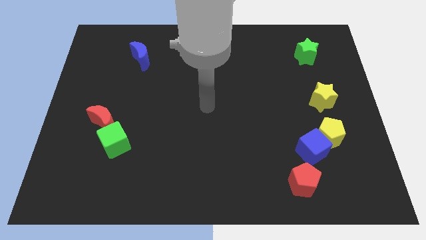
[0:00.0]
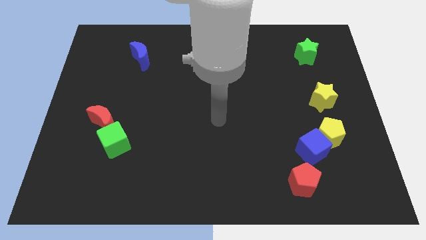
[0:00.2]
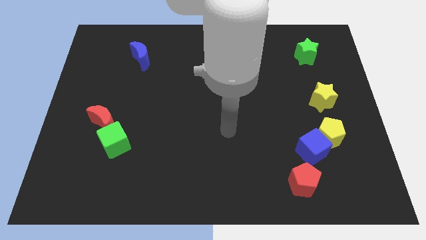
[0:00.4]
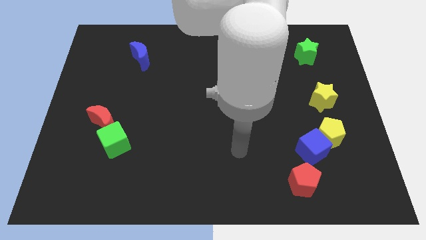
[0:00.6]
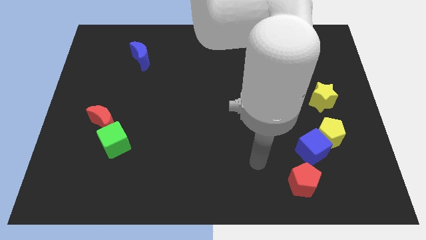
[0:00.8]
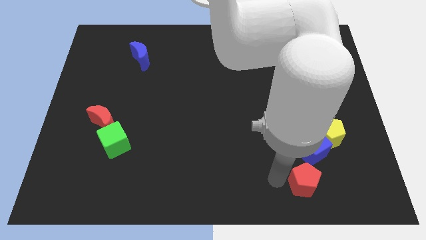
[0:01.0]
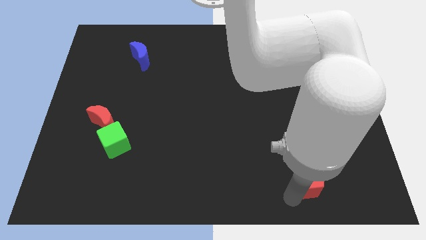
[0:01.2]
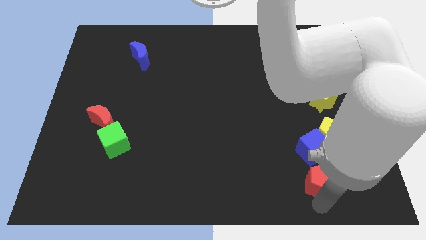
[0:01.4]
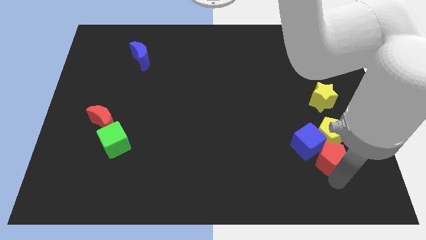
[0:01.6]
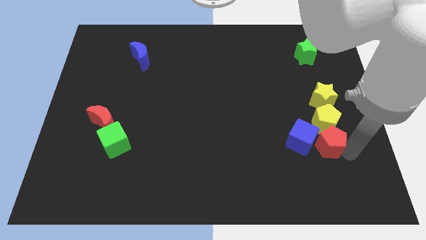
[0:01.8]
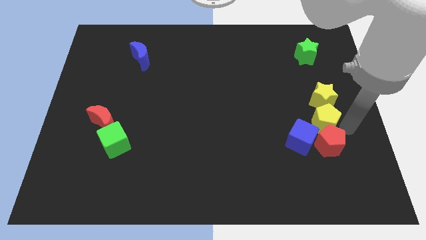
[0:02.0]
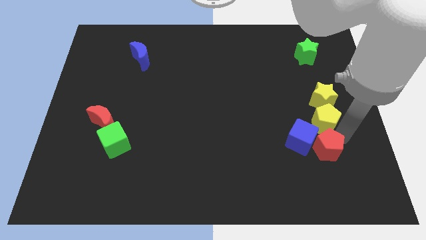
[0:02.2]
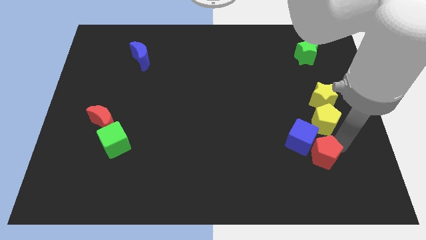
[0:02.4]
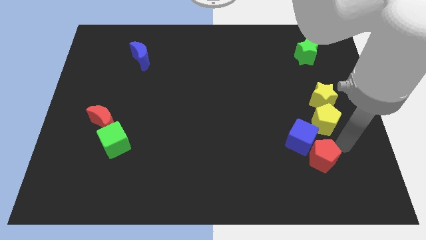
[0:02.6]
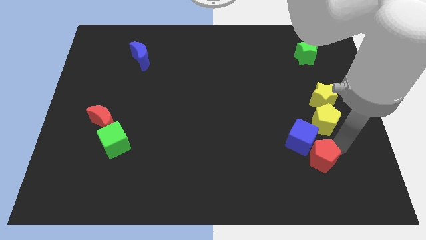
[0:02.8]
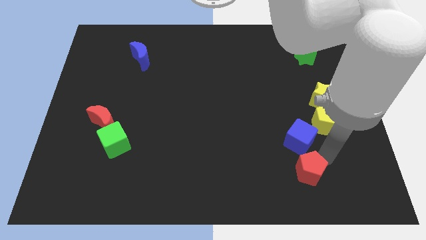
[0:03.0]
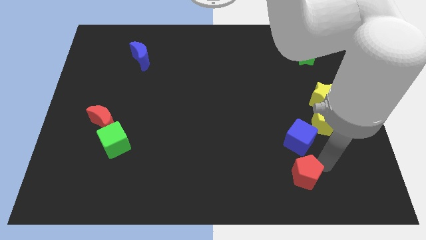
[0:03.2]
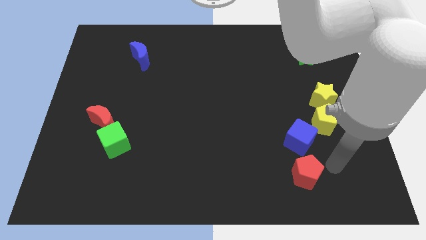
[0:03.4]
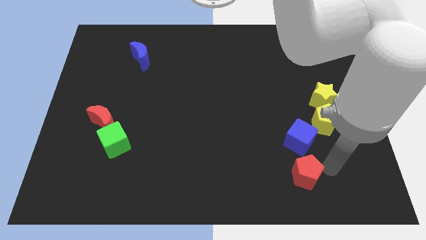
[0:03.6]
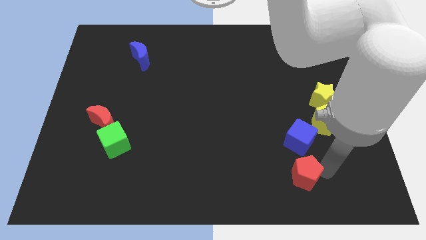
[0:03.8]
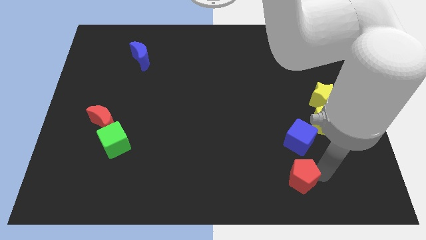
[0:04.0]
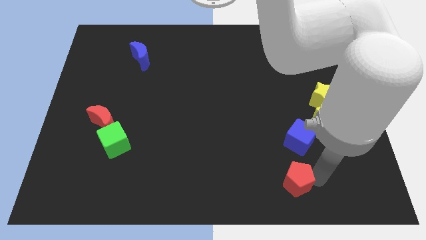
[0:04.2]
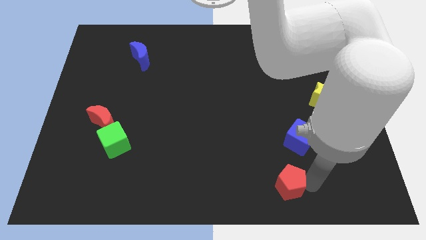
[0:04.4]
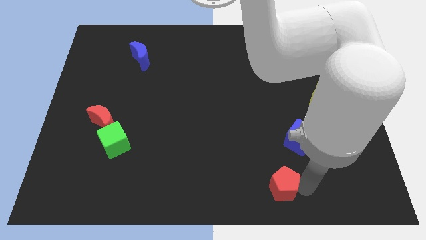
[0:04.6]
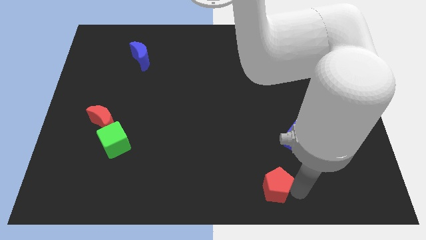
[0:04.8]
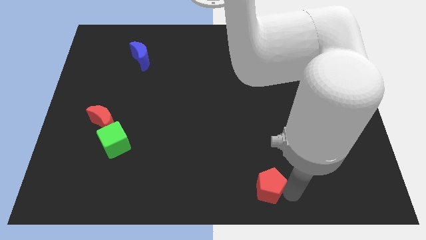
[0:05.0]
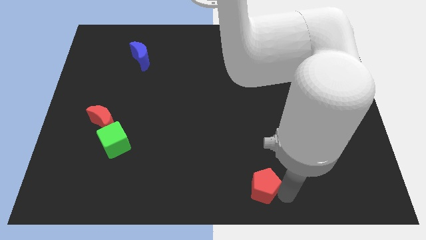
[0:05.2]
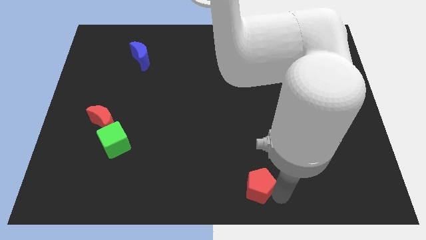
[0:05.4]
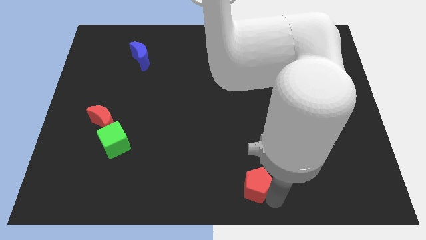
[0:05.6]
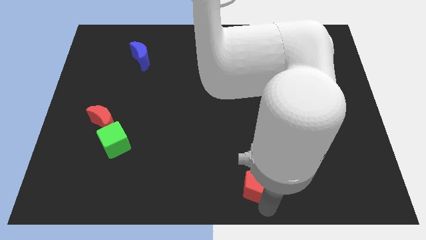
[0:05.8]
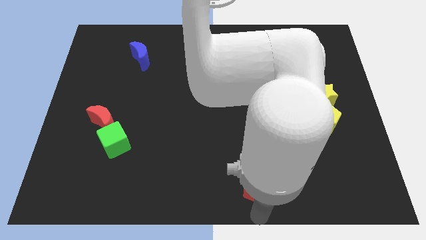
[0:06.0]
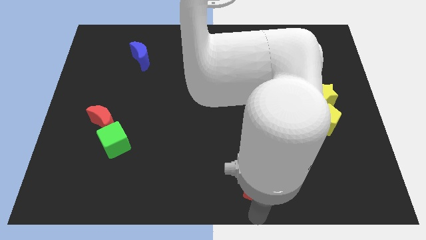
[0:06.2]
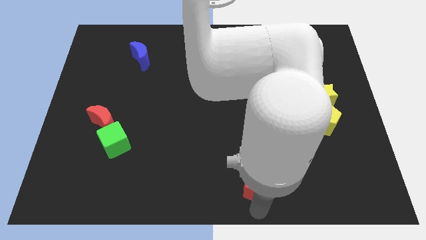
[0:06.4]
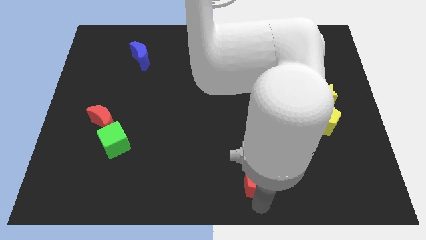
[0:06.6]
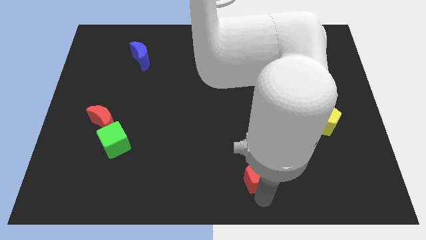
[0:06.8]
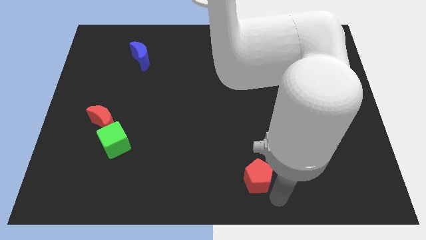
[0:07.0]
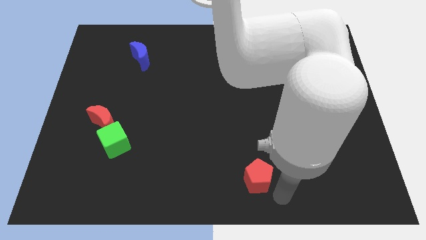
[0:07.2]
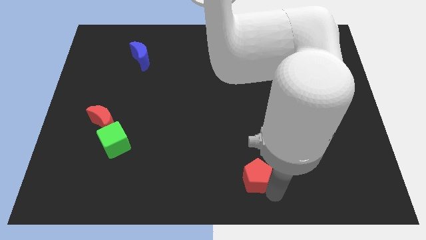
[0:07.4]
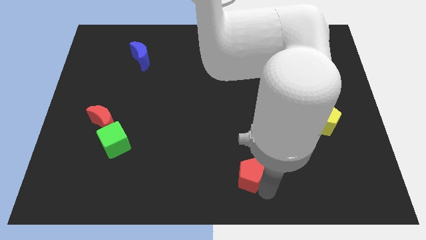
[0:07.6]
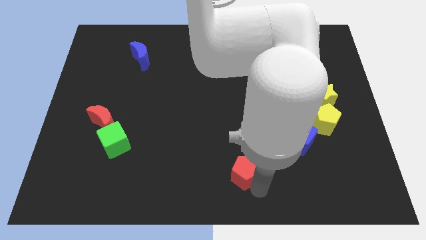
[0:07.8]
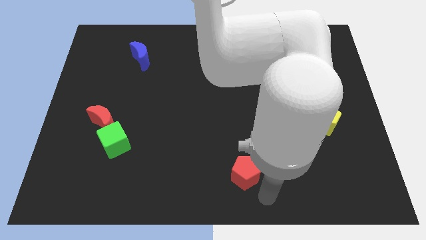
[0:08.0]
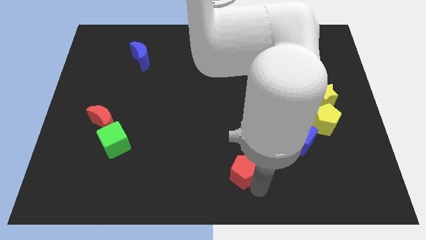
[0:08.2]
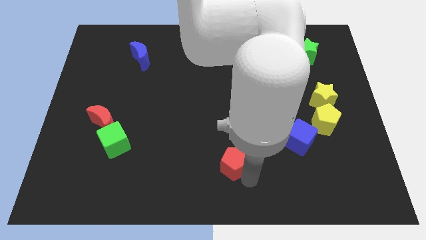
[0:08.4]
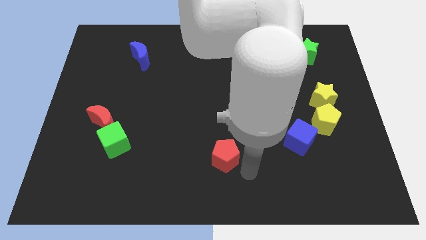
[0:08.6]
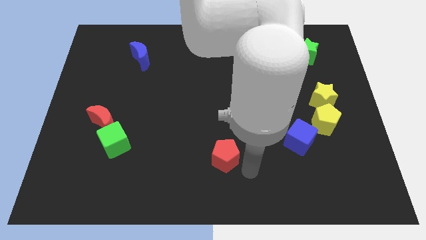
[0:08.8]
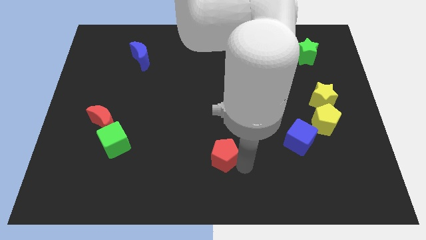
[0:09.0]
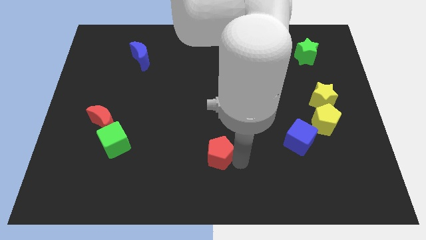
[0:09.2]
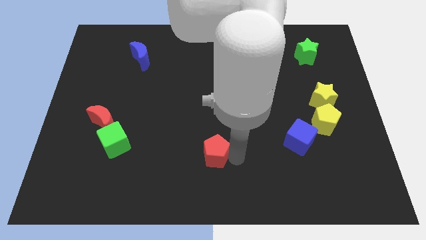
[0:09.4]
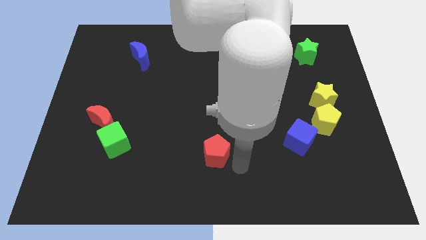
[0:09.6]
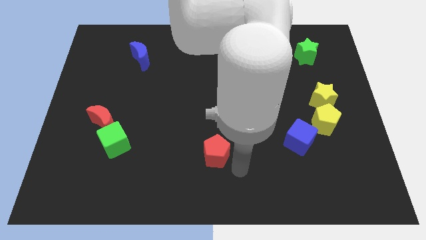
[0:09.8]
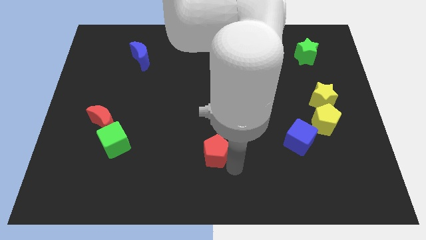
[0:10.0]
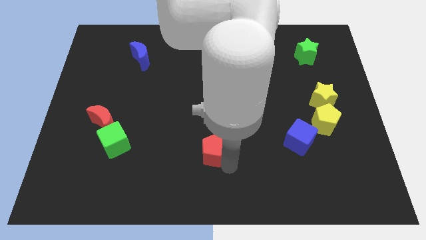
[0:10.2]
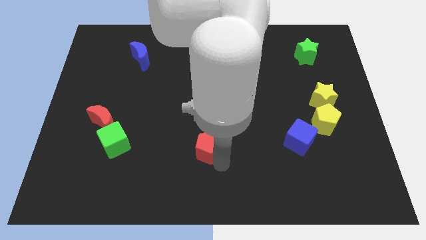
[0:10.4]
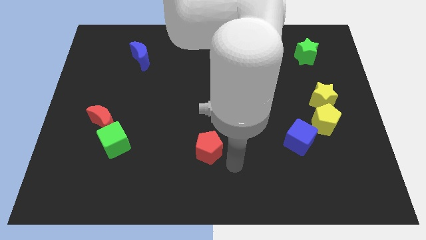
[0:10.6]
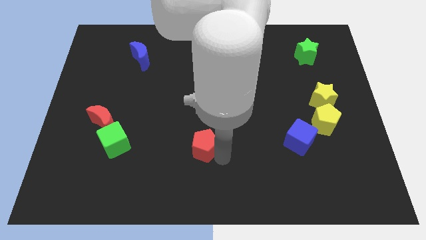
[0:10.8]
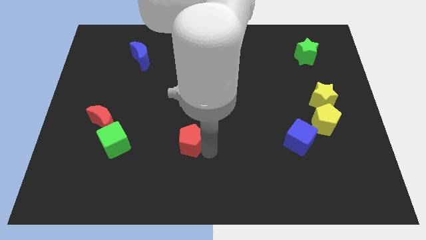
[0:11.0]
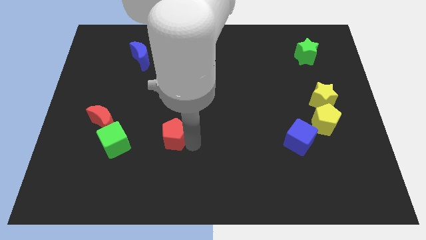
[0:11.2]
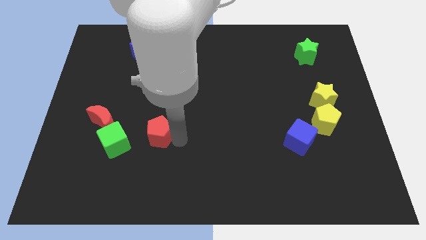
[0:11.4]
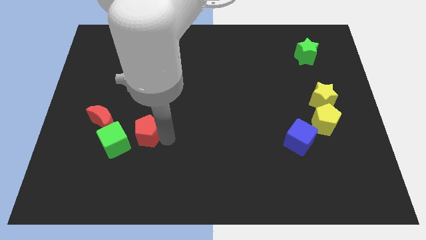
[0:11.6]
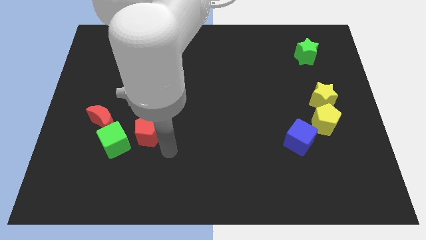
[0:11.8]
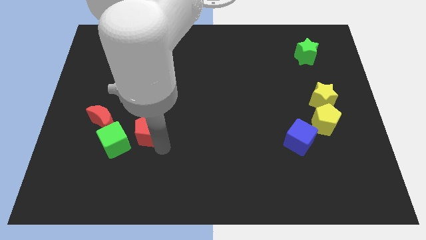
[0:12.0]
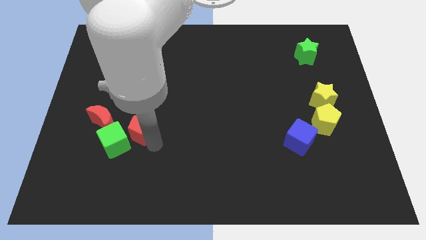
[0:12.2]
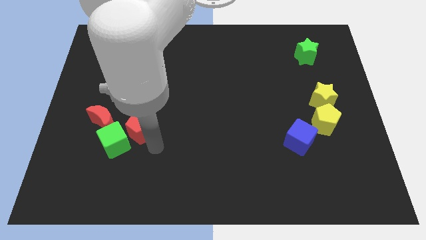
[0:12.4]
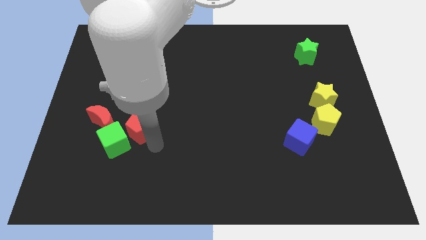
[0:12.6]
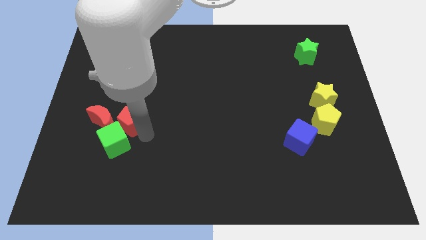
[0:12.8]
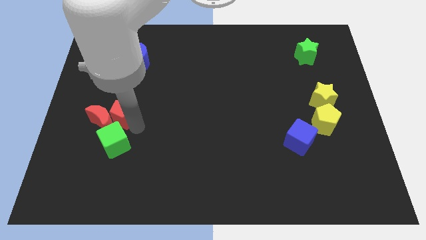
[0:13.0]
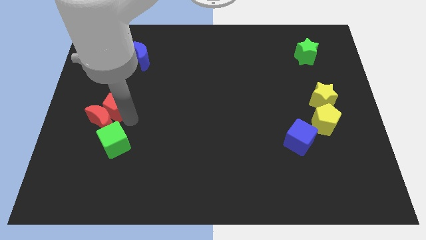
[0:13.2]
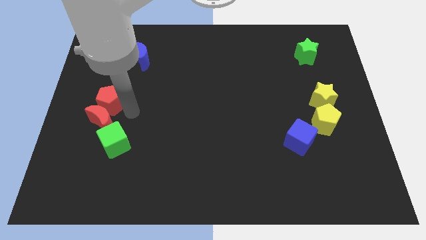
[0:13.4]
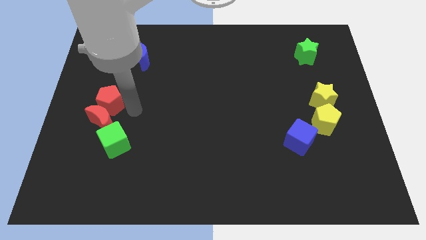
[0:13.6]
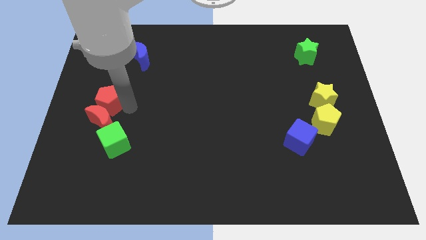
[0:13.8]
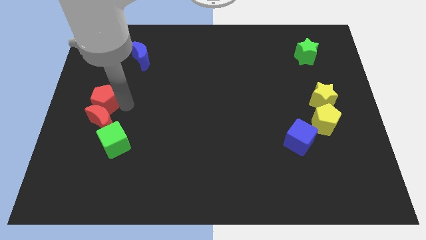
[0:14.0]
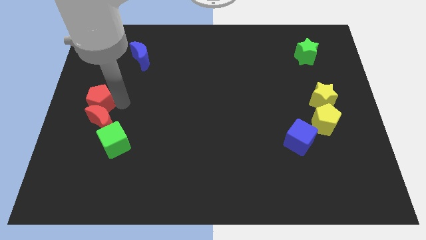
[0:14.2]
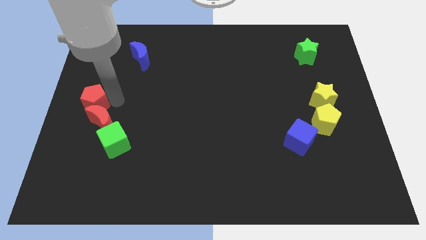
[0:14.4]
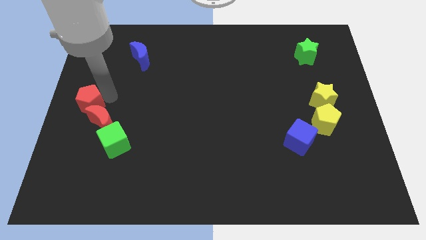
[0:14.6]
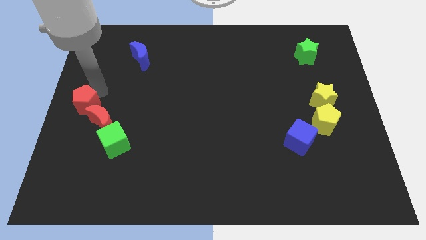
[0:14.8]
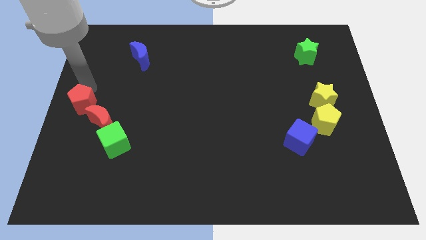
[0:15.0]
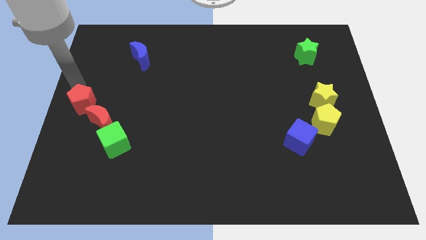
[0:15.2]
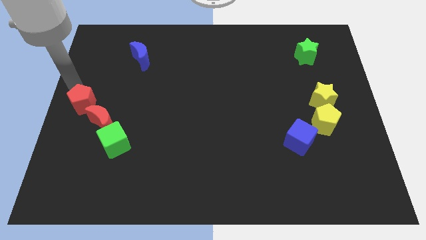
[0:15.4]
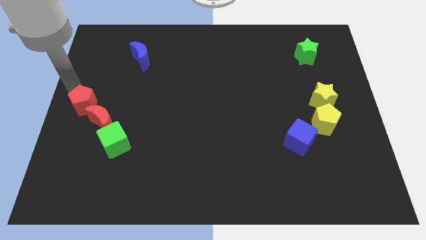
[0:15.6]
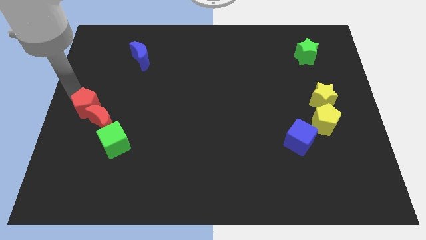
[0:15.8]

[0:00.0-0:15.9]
slide the red pentagon to the top left side of the green cube
